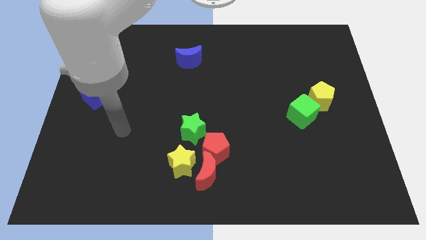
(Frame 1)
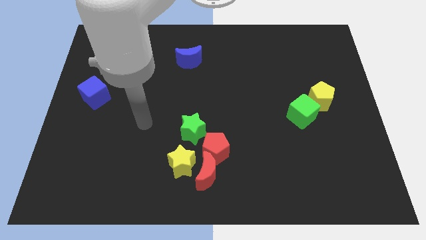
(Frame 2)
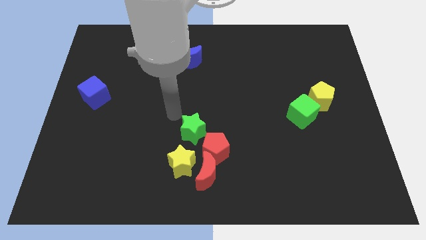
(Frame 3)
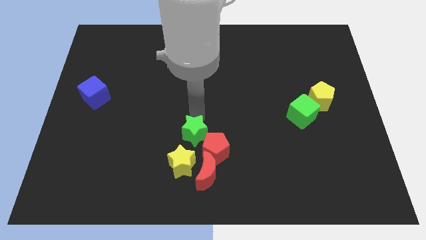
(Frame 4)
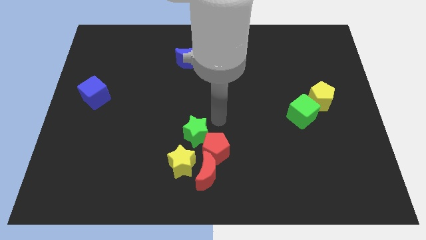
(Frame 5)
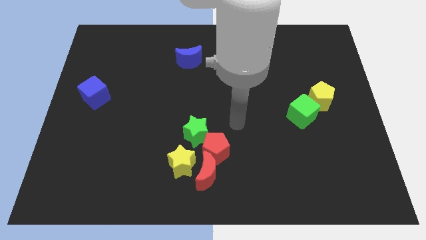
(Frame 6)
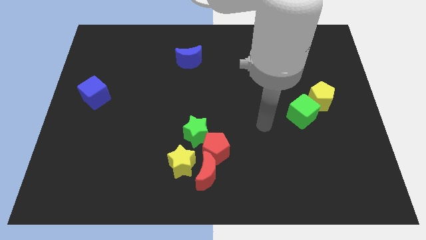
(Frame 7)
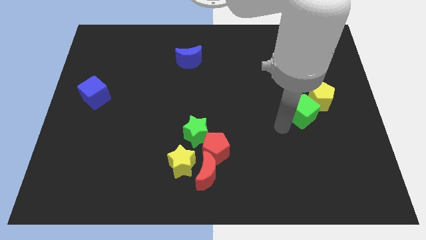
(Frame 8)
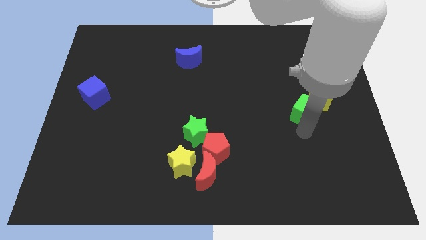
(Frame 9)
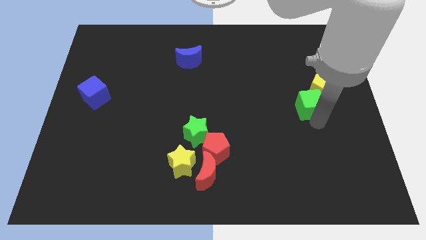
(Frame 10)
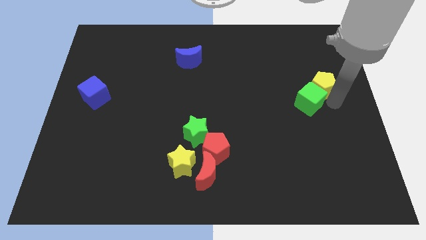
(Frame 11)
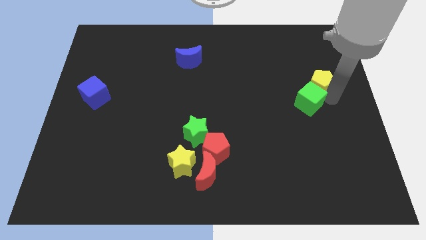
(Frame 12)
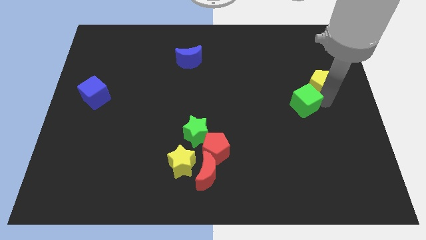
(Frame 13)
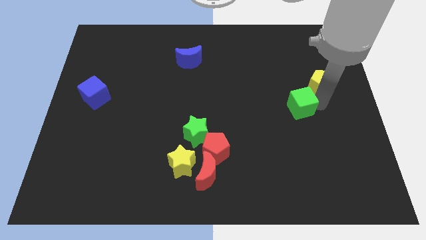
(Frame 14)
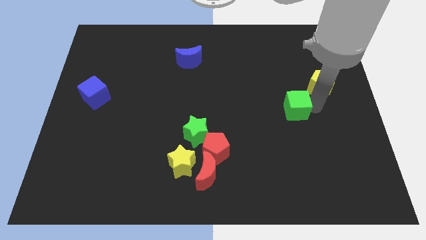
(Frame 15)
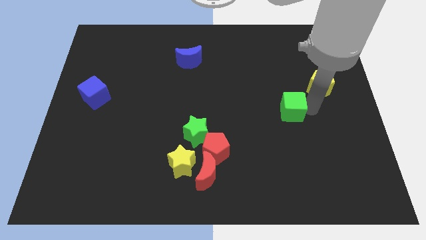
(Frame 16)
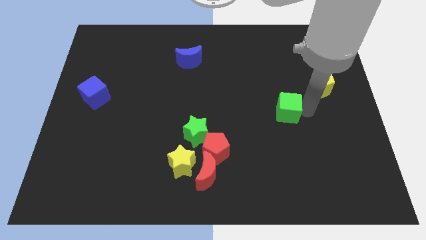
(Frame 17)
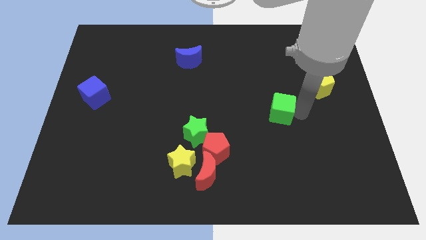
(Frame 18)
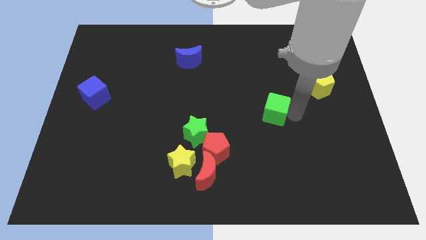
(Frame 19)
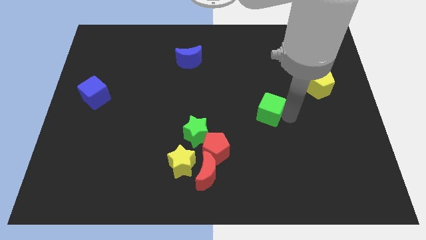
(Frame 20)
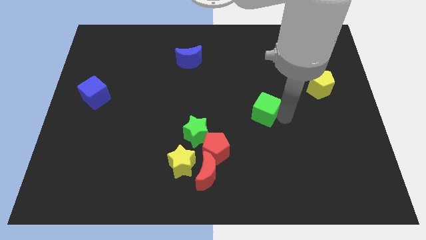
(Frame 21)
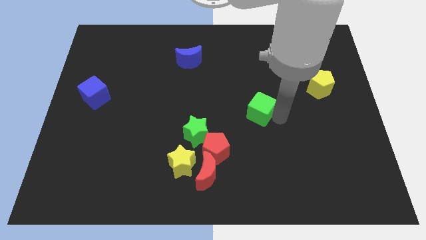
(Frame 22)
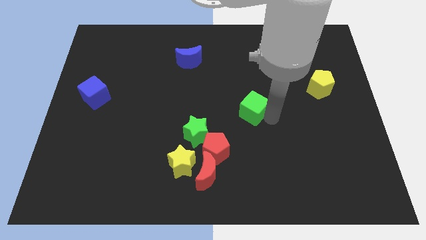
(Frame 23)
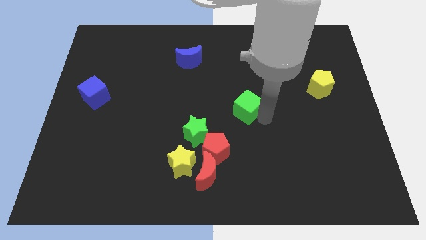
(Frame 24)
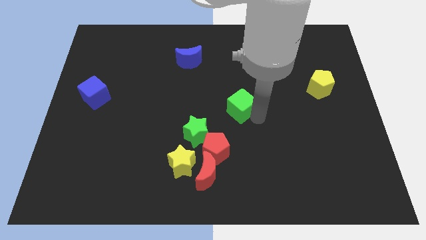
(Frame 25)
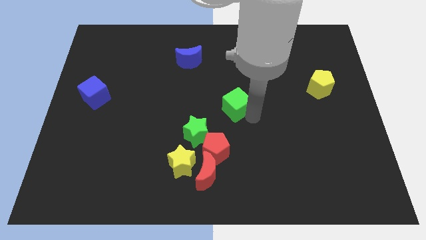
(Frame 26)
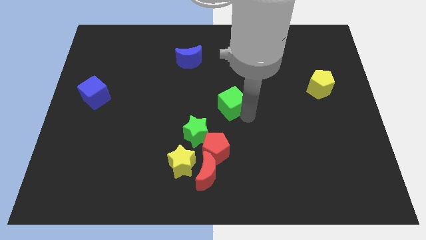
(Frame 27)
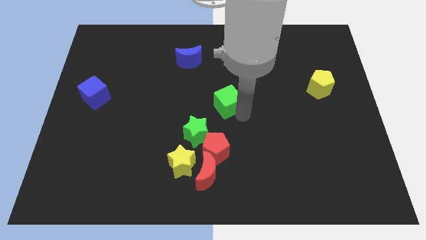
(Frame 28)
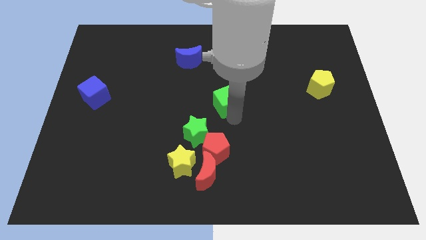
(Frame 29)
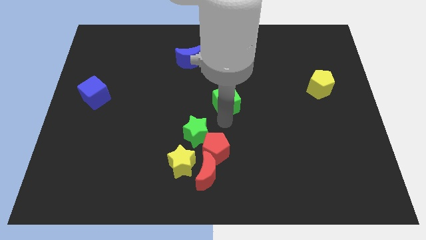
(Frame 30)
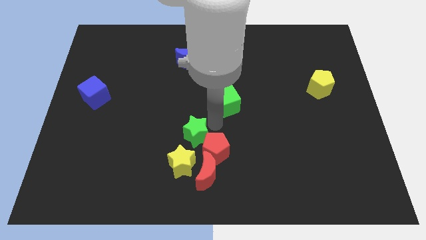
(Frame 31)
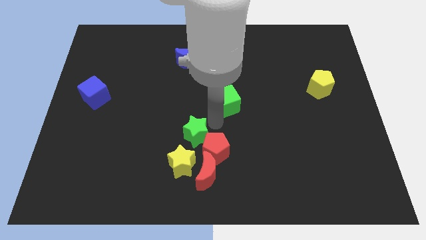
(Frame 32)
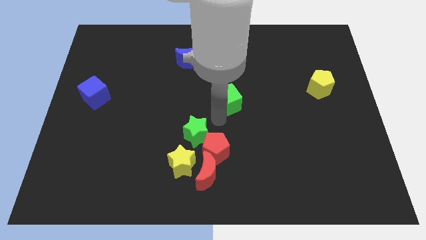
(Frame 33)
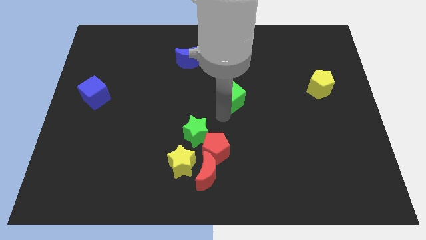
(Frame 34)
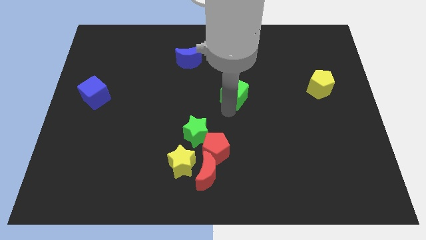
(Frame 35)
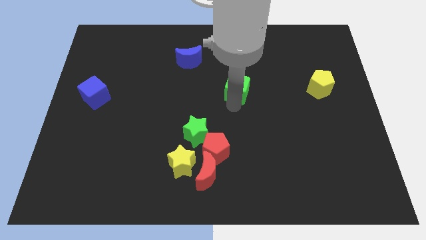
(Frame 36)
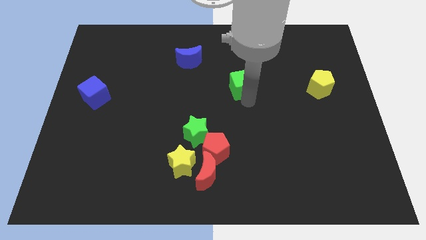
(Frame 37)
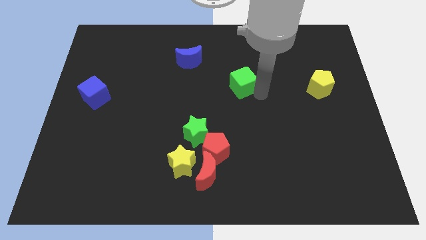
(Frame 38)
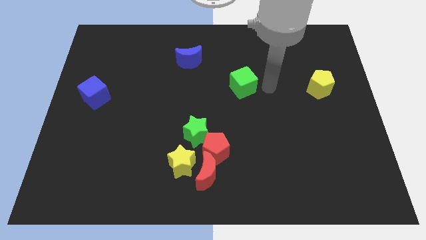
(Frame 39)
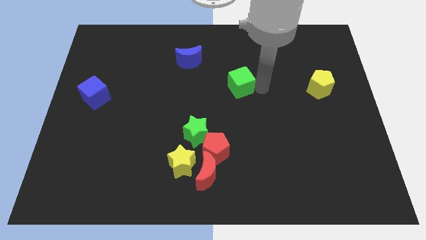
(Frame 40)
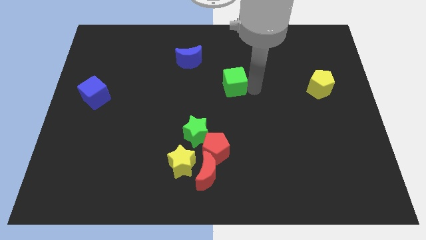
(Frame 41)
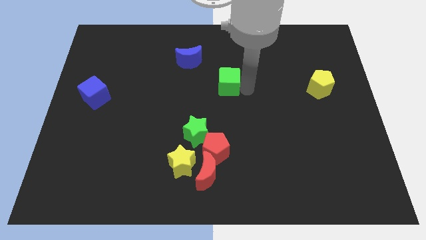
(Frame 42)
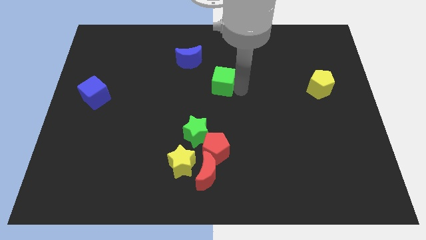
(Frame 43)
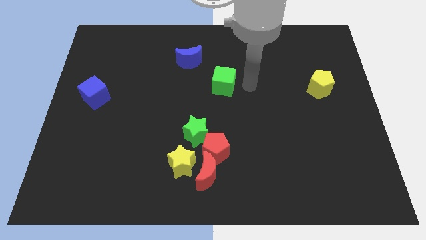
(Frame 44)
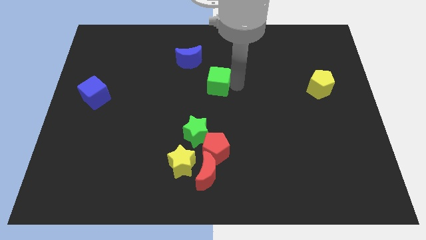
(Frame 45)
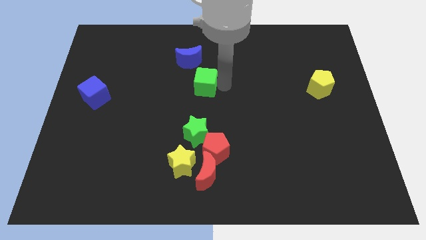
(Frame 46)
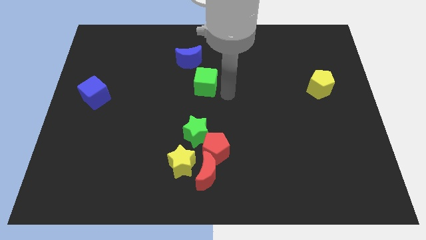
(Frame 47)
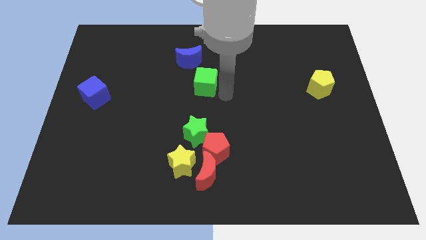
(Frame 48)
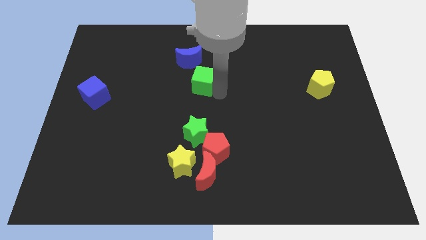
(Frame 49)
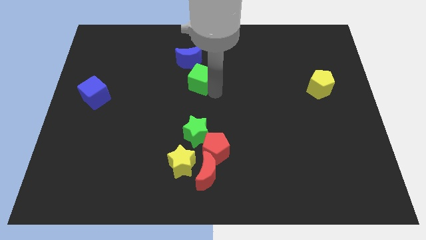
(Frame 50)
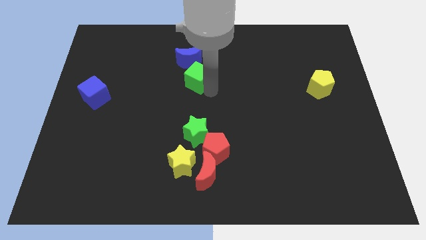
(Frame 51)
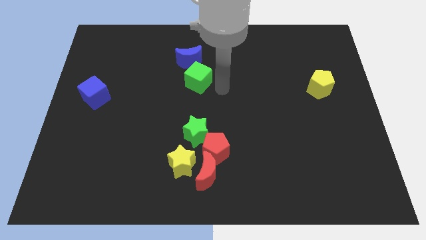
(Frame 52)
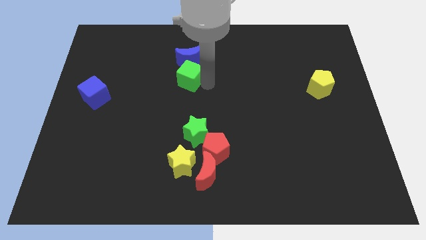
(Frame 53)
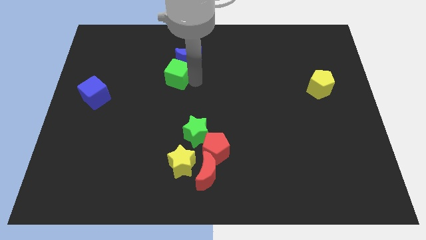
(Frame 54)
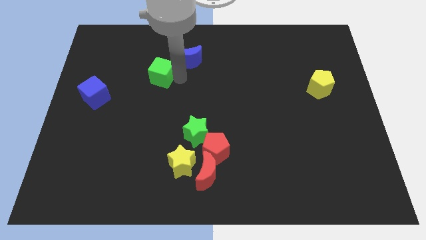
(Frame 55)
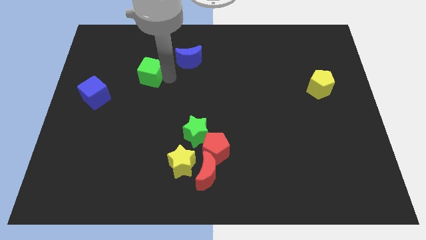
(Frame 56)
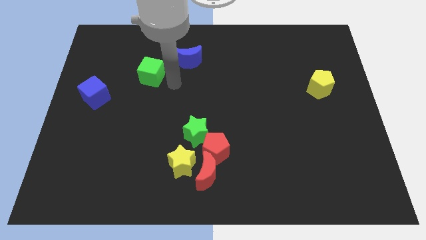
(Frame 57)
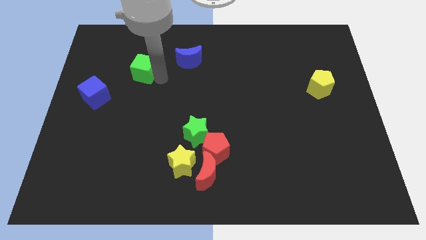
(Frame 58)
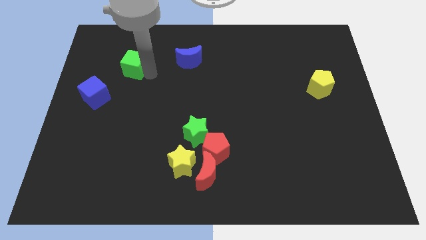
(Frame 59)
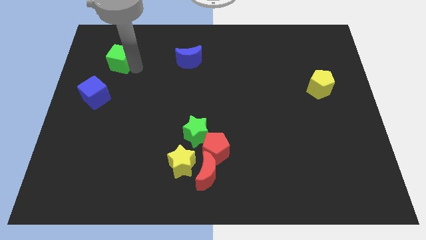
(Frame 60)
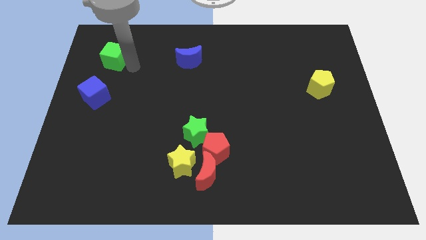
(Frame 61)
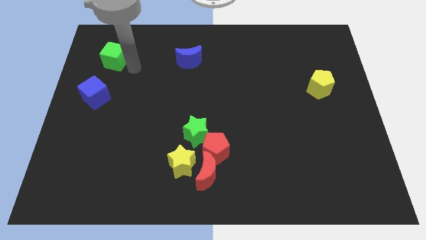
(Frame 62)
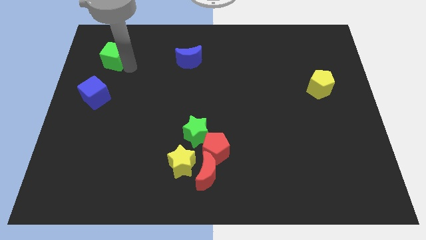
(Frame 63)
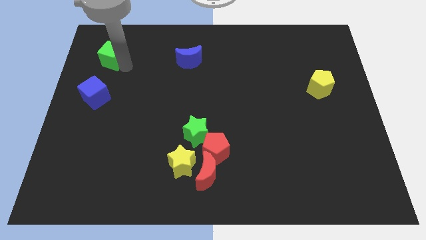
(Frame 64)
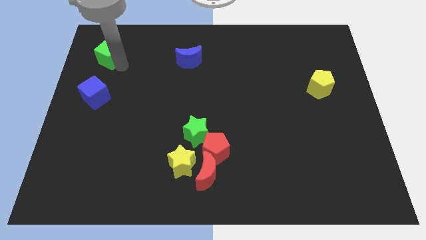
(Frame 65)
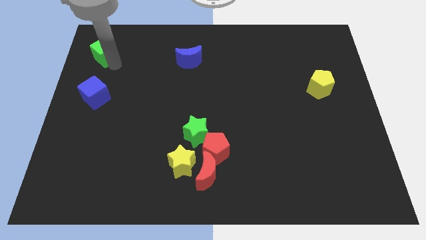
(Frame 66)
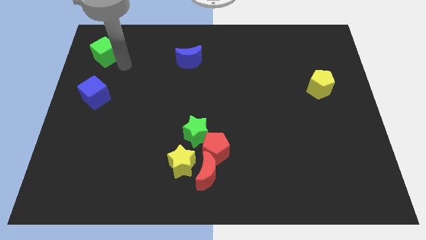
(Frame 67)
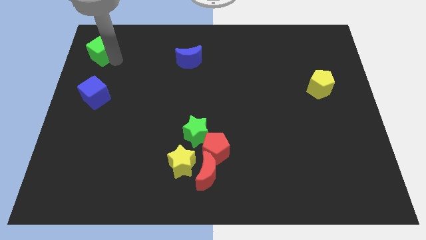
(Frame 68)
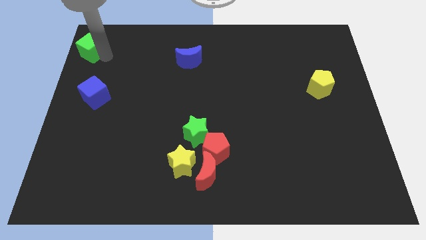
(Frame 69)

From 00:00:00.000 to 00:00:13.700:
slide the green cube to the top left of the board
